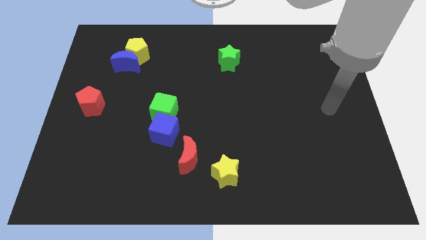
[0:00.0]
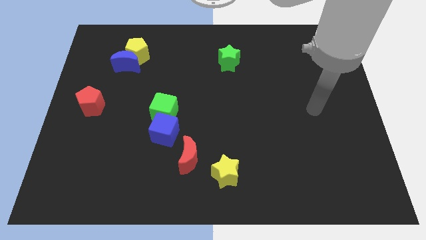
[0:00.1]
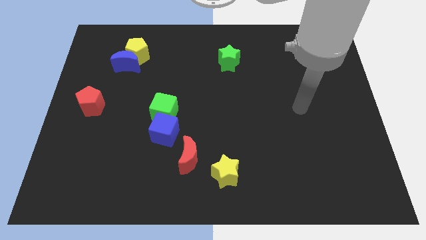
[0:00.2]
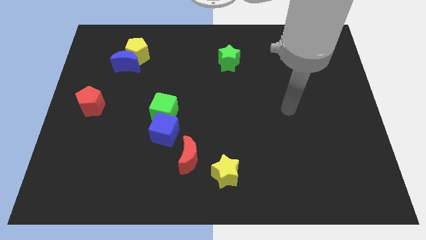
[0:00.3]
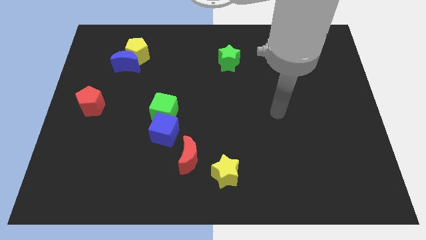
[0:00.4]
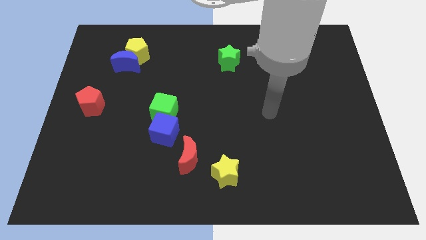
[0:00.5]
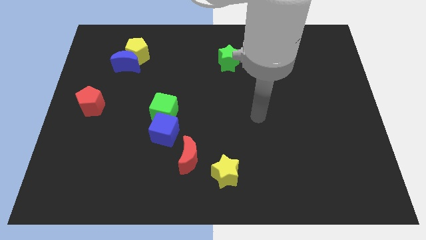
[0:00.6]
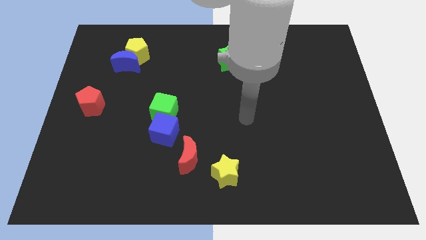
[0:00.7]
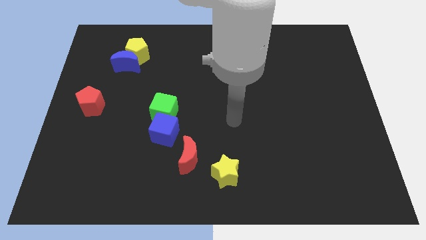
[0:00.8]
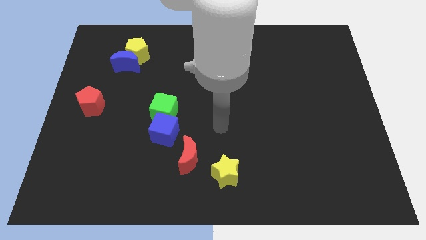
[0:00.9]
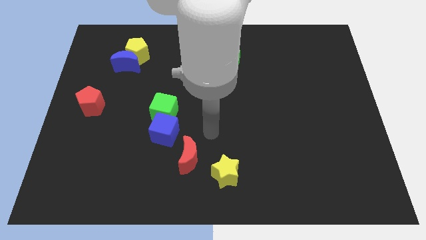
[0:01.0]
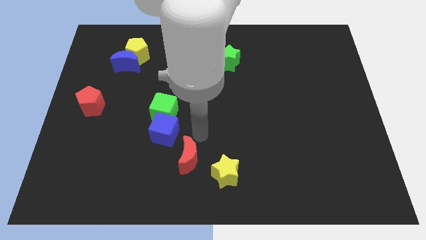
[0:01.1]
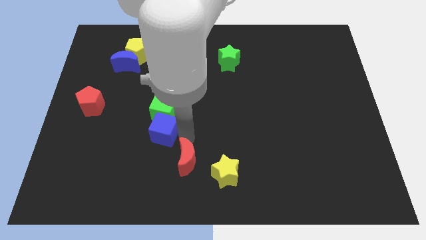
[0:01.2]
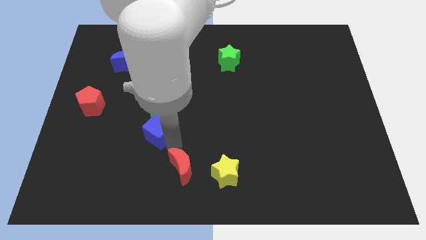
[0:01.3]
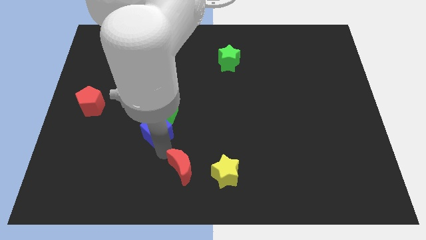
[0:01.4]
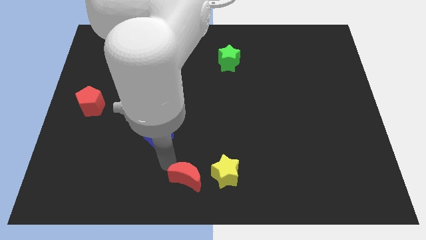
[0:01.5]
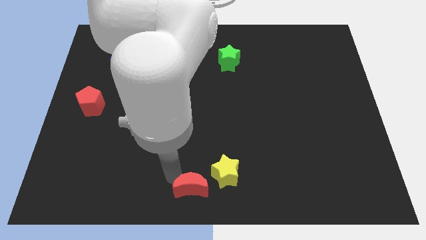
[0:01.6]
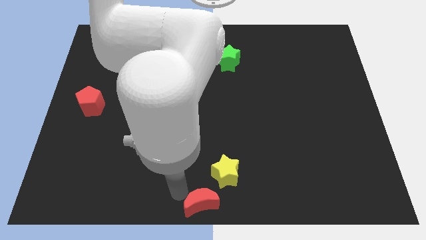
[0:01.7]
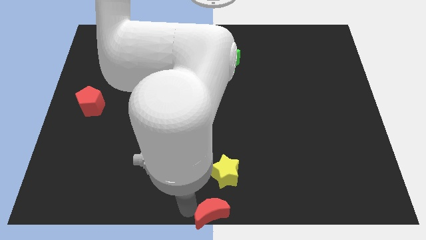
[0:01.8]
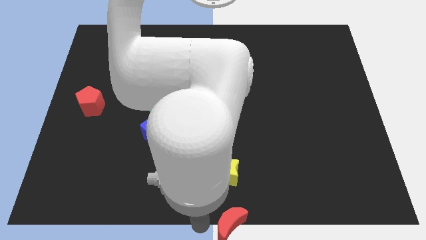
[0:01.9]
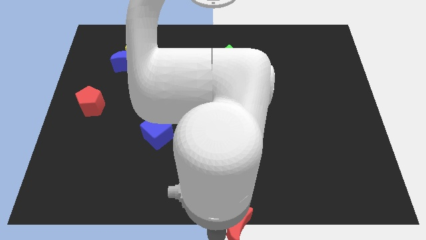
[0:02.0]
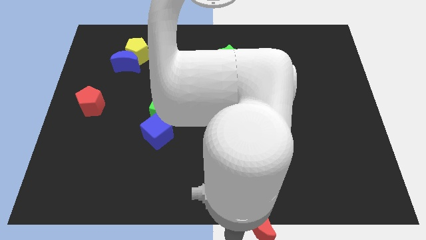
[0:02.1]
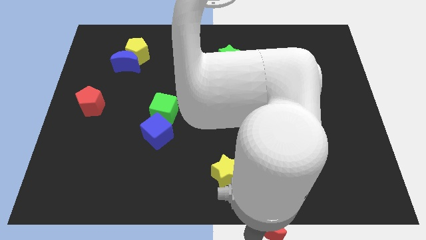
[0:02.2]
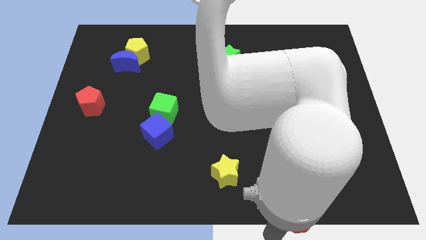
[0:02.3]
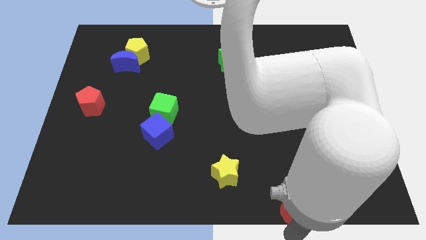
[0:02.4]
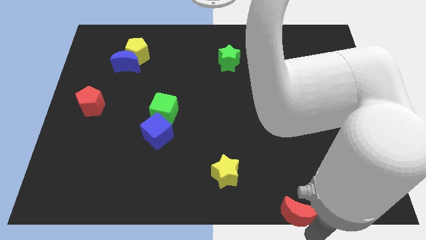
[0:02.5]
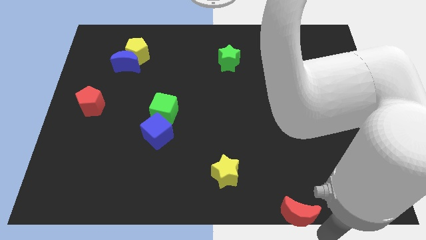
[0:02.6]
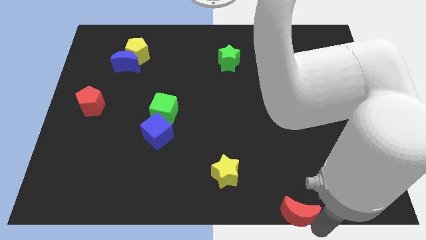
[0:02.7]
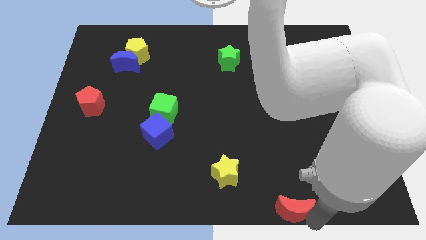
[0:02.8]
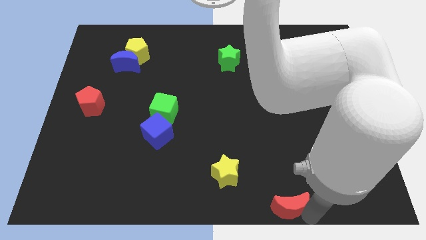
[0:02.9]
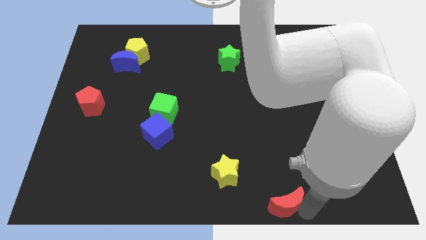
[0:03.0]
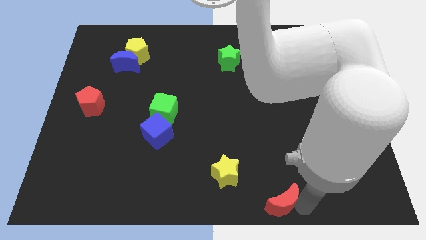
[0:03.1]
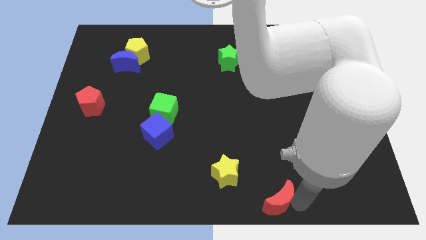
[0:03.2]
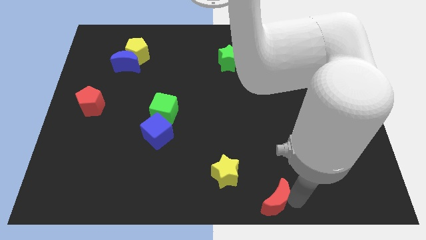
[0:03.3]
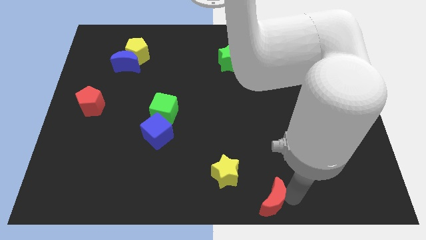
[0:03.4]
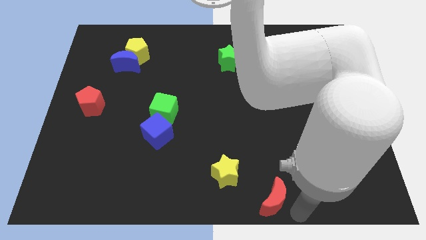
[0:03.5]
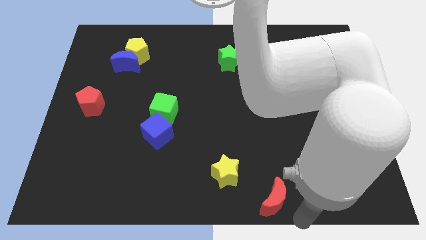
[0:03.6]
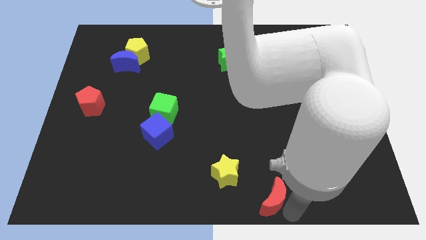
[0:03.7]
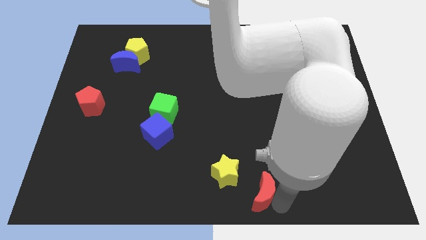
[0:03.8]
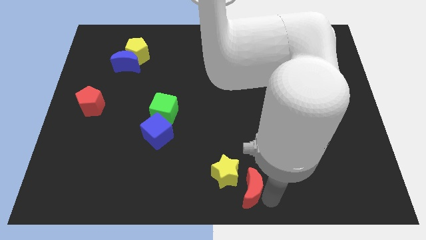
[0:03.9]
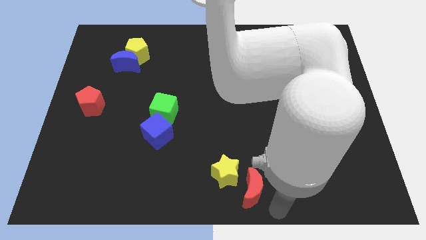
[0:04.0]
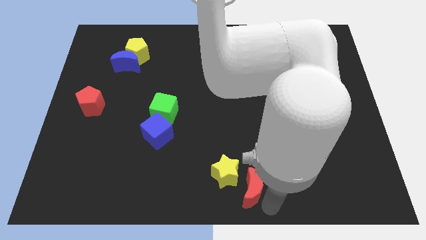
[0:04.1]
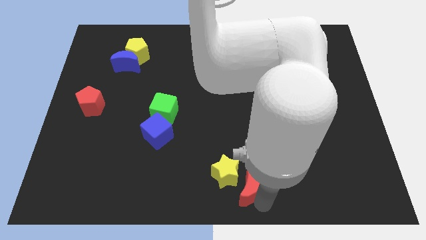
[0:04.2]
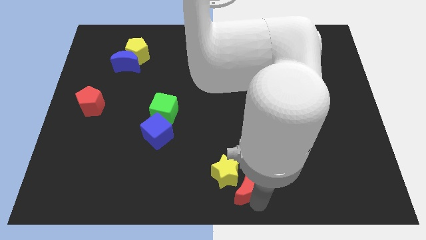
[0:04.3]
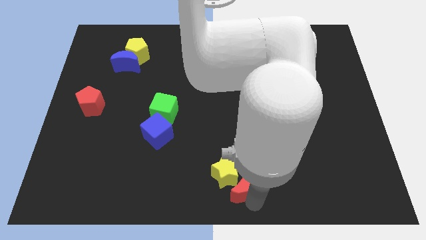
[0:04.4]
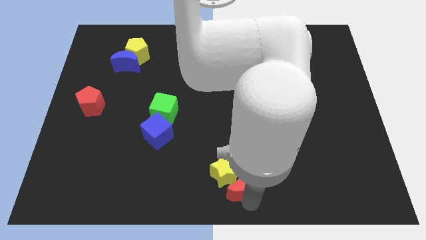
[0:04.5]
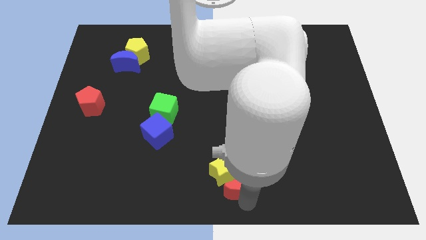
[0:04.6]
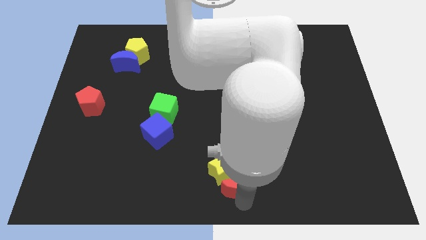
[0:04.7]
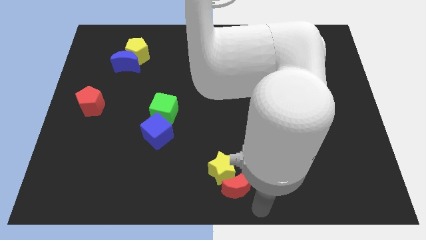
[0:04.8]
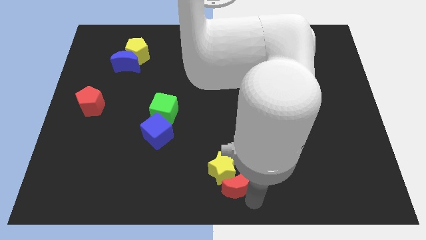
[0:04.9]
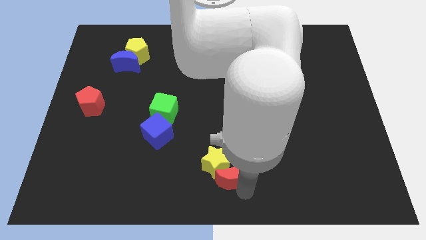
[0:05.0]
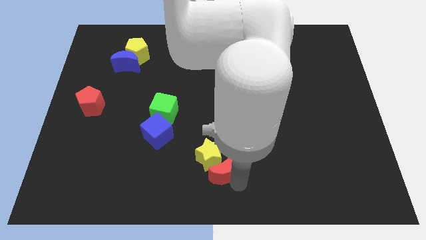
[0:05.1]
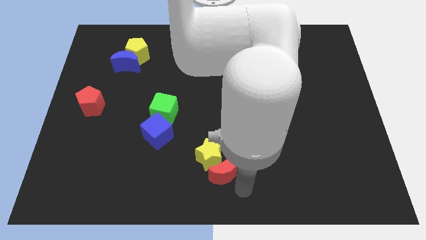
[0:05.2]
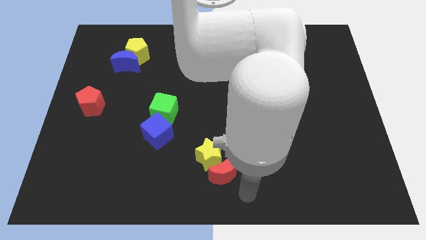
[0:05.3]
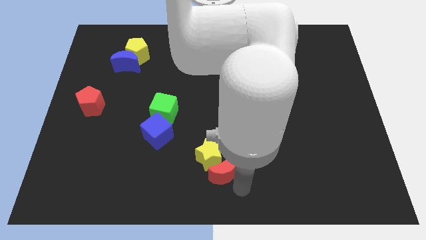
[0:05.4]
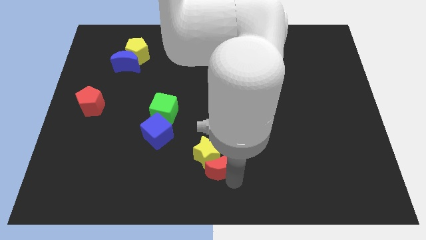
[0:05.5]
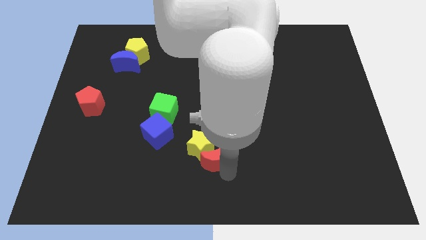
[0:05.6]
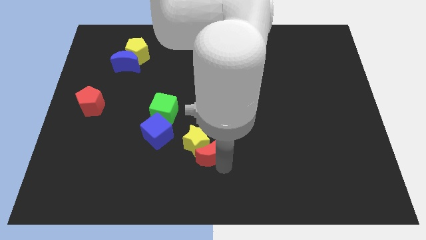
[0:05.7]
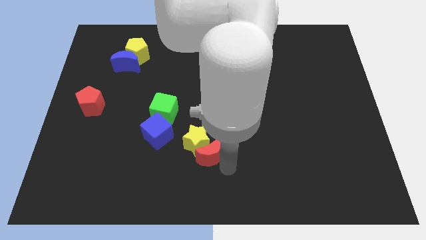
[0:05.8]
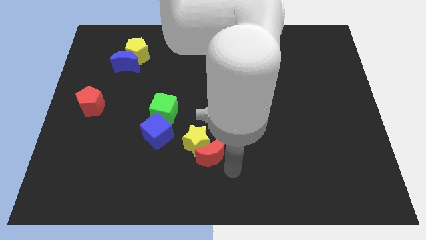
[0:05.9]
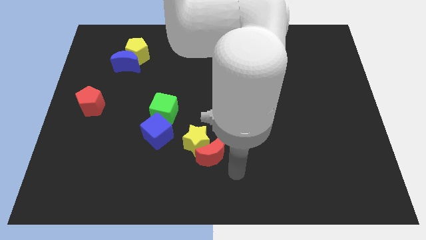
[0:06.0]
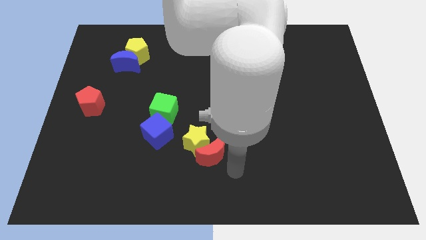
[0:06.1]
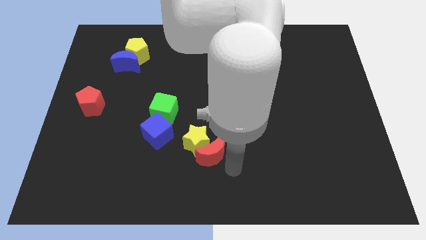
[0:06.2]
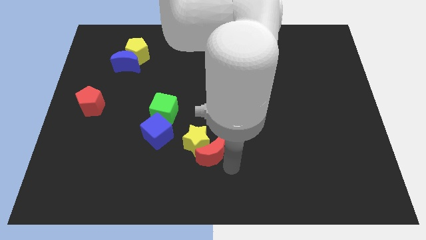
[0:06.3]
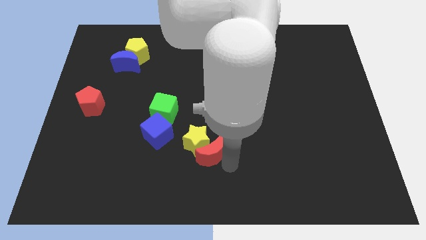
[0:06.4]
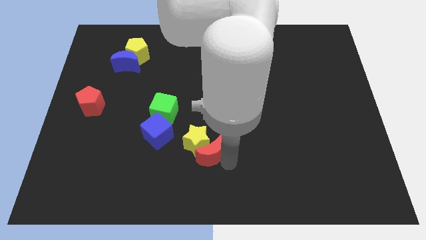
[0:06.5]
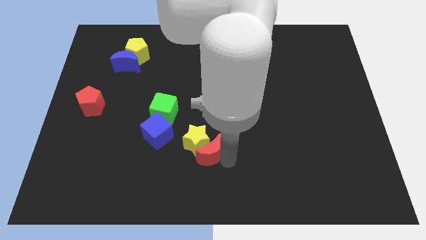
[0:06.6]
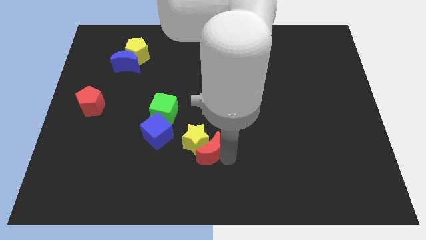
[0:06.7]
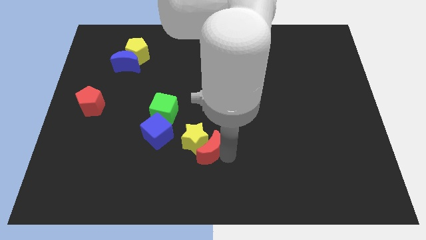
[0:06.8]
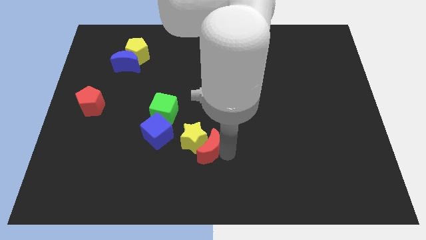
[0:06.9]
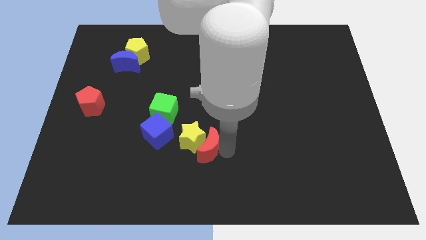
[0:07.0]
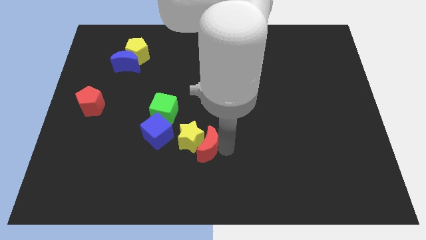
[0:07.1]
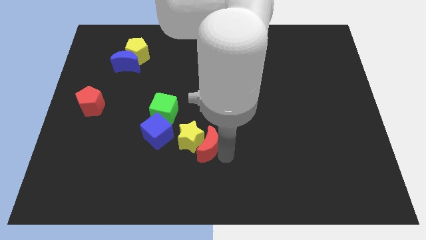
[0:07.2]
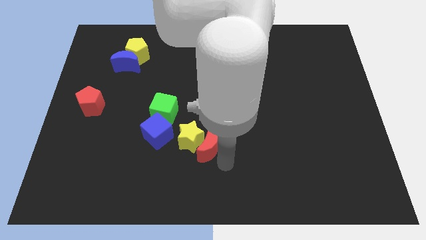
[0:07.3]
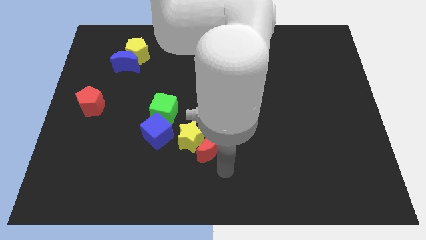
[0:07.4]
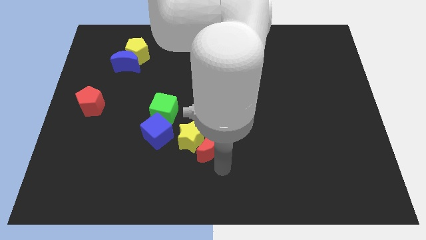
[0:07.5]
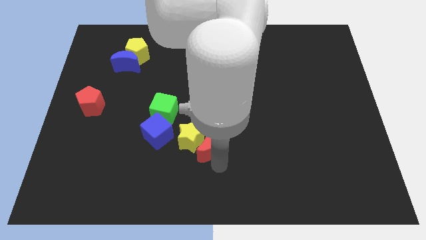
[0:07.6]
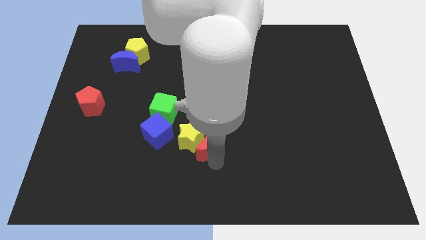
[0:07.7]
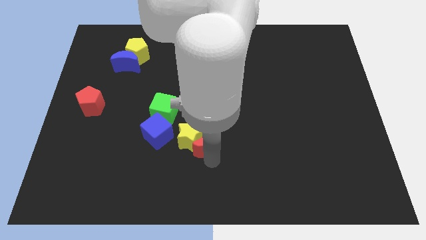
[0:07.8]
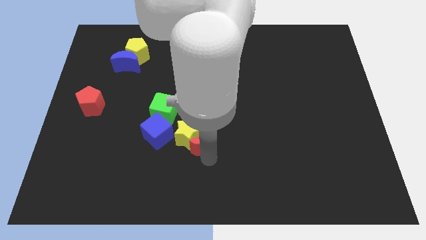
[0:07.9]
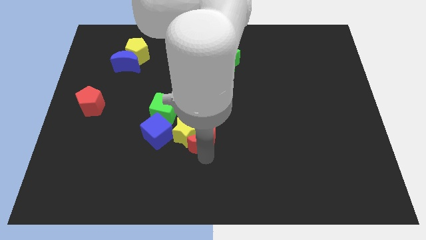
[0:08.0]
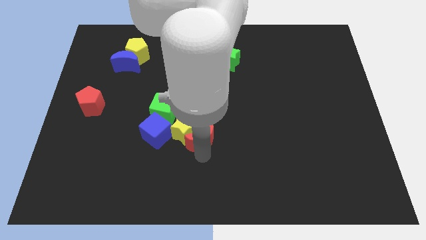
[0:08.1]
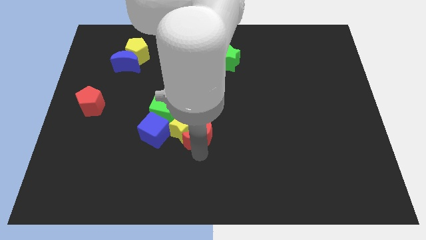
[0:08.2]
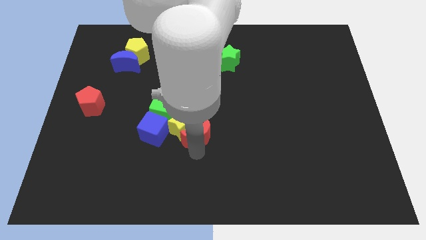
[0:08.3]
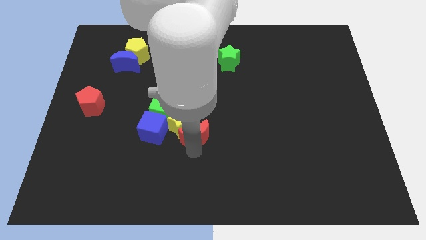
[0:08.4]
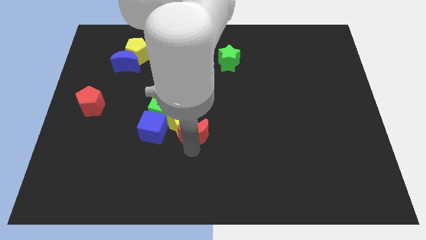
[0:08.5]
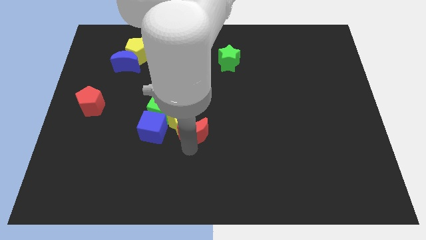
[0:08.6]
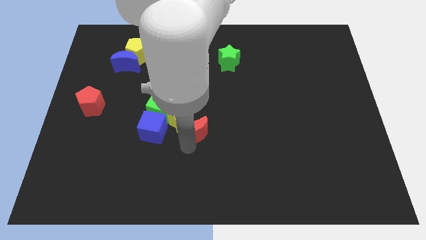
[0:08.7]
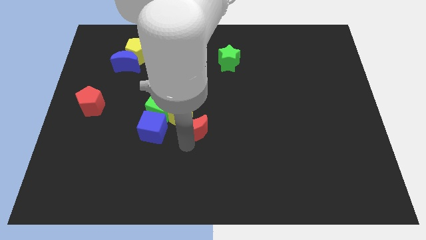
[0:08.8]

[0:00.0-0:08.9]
slightly push the red moon up
